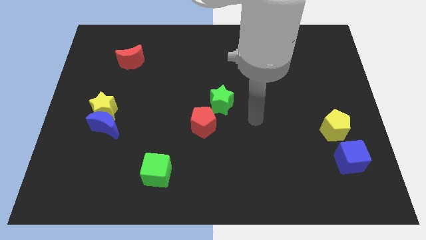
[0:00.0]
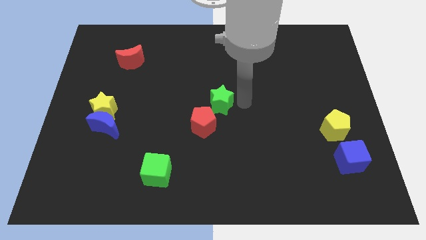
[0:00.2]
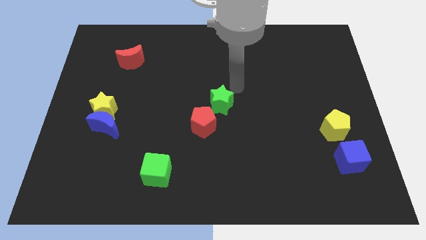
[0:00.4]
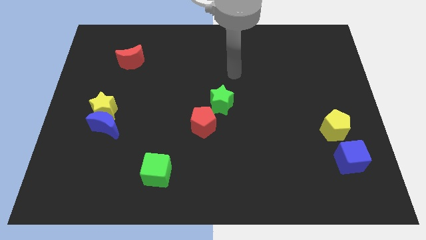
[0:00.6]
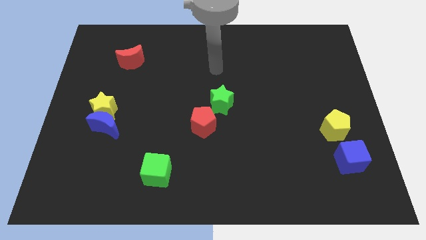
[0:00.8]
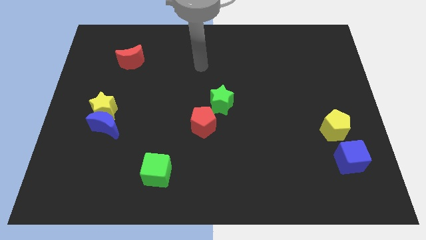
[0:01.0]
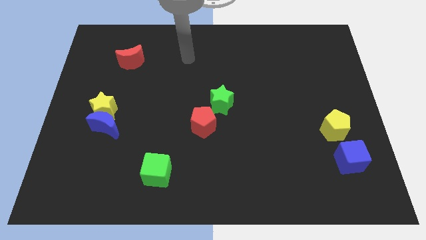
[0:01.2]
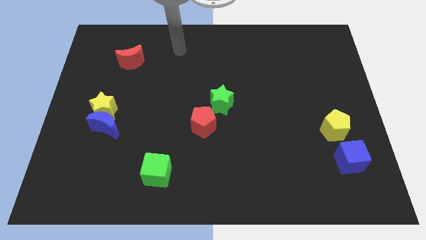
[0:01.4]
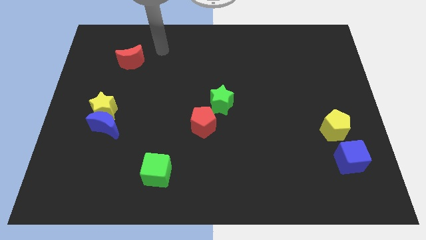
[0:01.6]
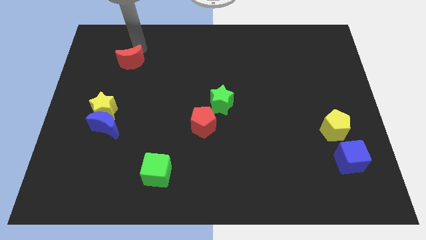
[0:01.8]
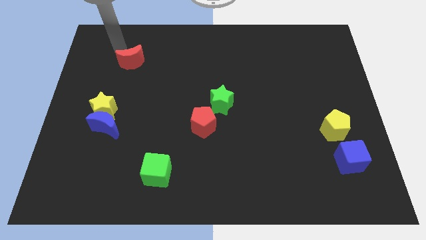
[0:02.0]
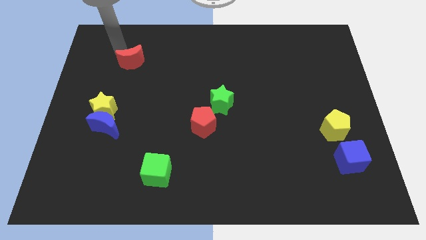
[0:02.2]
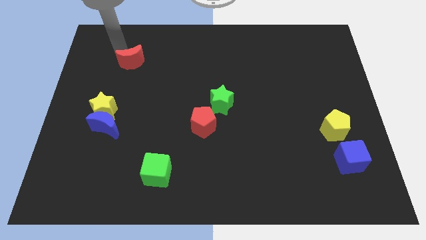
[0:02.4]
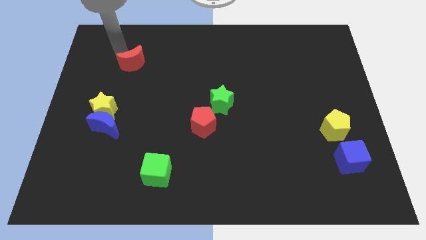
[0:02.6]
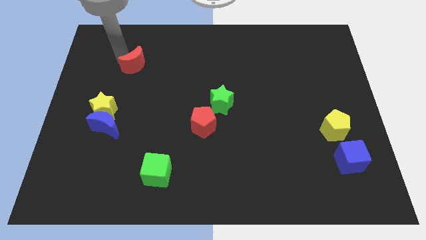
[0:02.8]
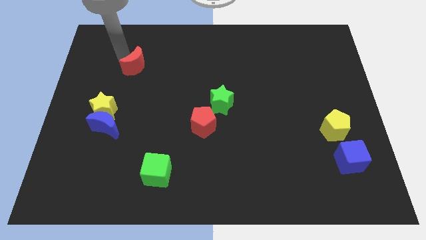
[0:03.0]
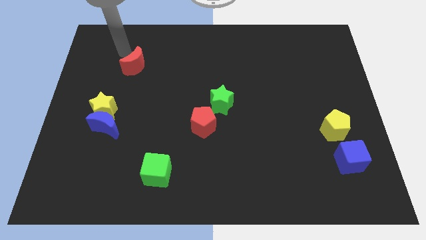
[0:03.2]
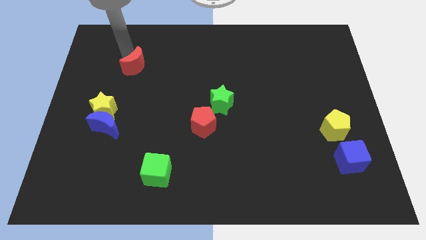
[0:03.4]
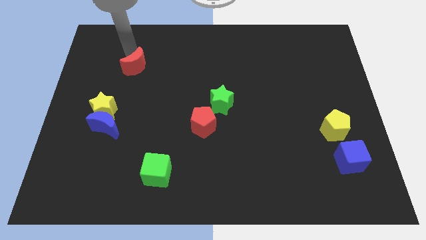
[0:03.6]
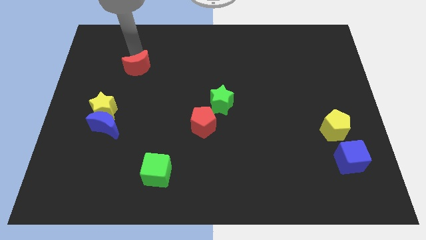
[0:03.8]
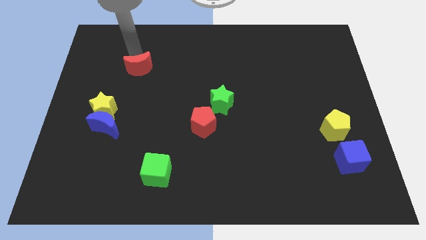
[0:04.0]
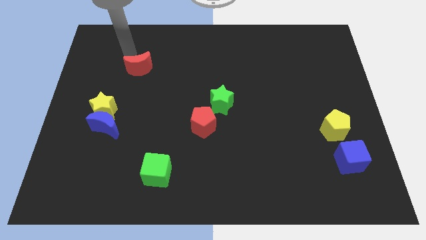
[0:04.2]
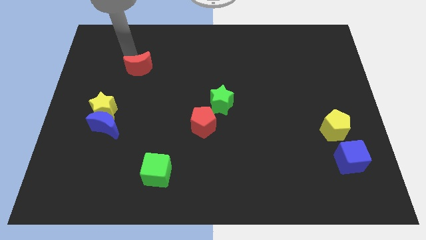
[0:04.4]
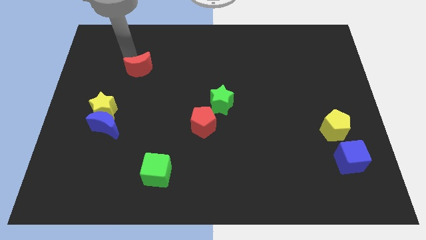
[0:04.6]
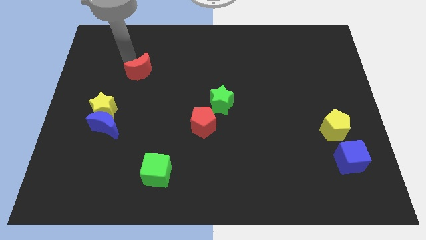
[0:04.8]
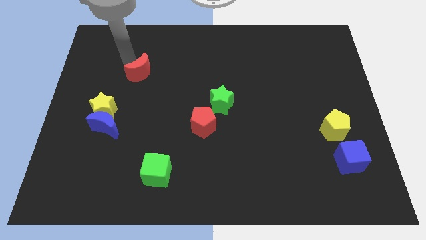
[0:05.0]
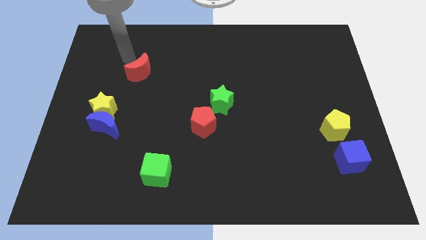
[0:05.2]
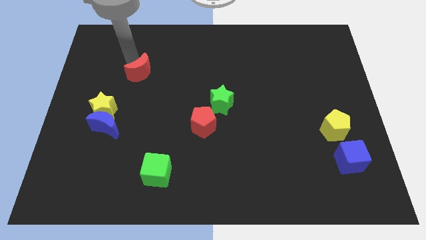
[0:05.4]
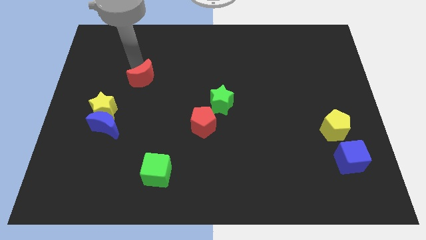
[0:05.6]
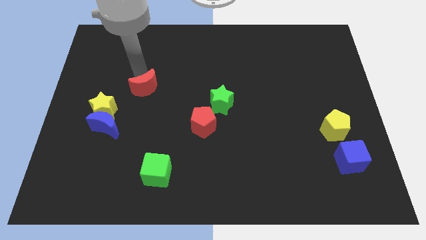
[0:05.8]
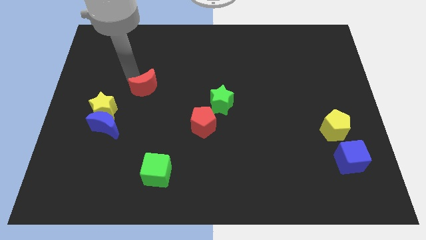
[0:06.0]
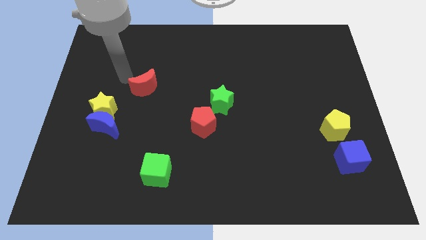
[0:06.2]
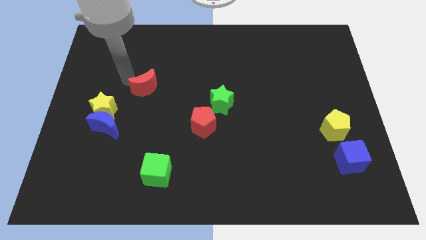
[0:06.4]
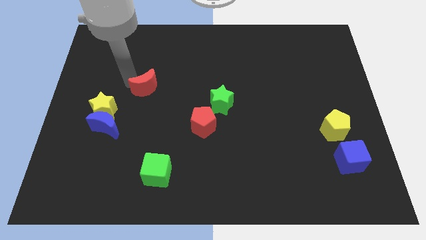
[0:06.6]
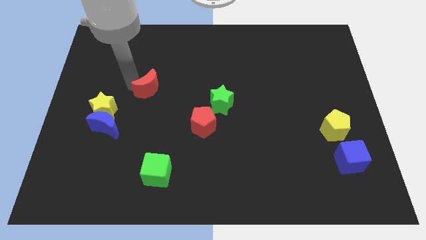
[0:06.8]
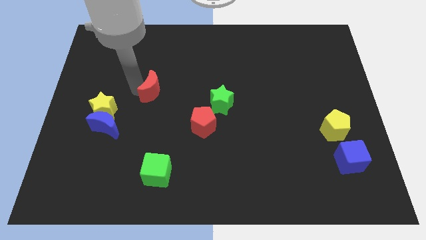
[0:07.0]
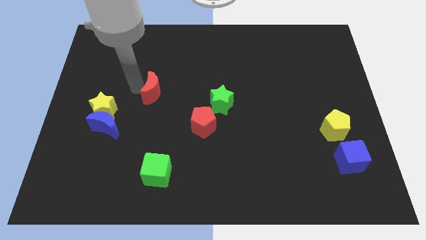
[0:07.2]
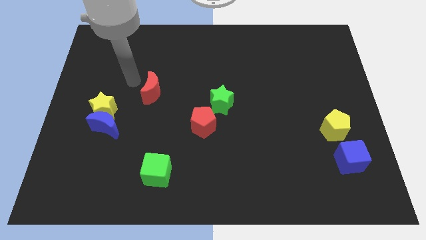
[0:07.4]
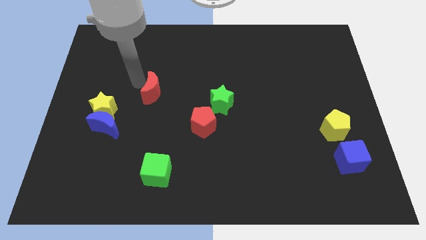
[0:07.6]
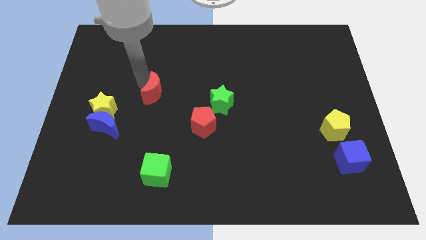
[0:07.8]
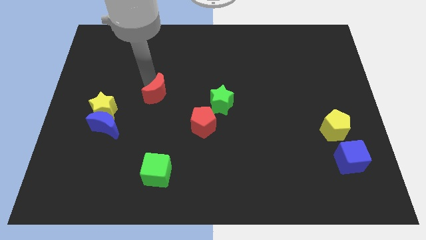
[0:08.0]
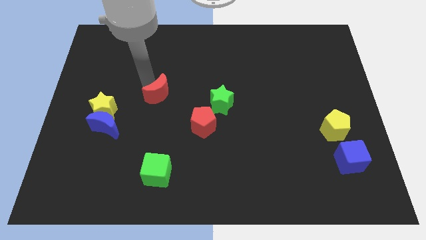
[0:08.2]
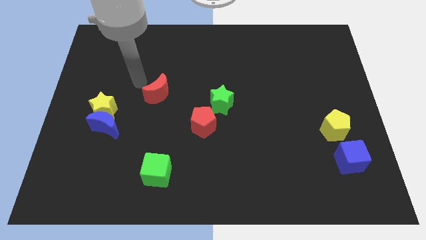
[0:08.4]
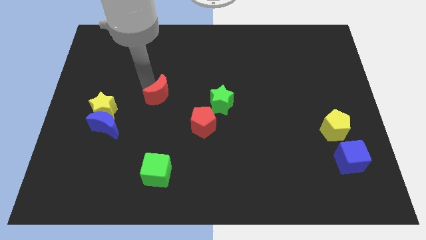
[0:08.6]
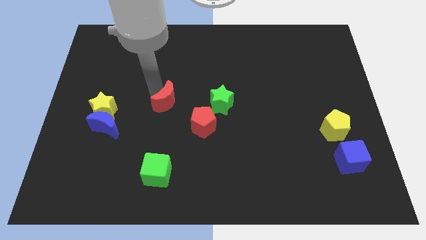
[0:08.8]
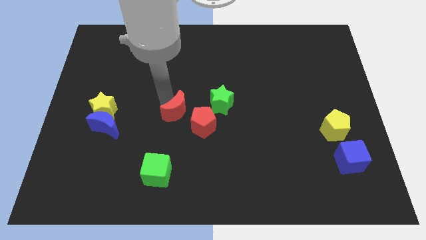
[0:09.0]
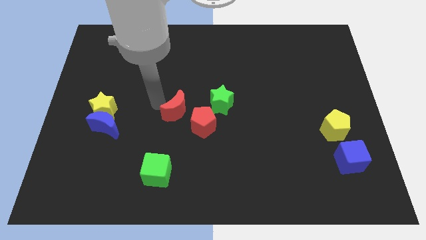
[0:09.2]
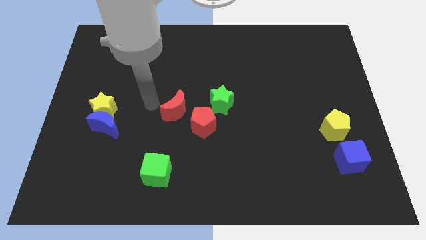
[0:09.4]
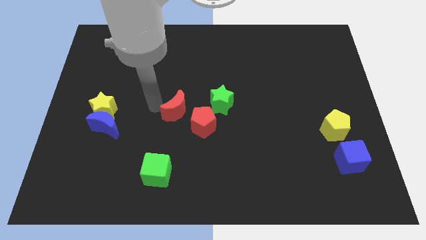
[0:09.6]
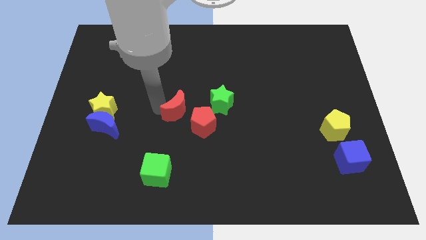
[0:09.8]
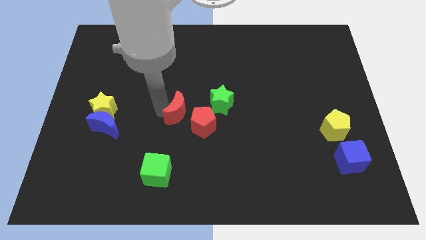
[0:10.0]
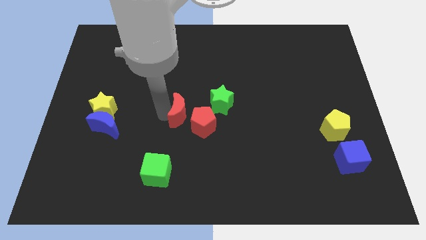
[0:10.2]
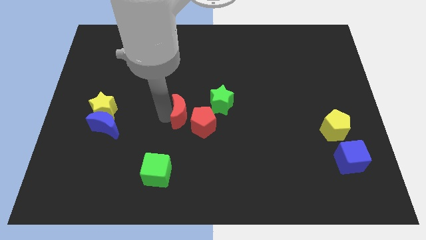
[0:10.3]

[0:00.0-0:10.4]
put the red moon close to the red pentagon

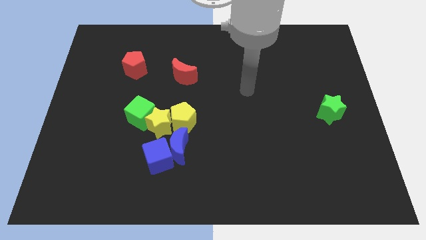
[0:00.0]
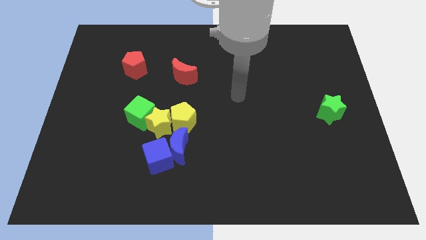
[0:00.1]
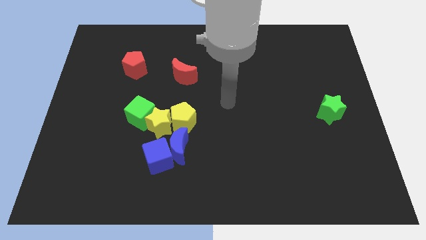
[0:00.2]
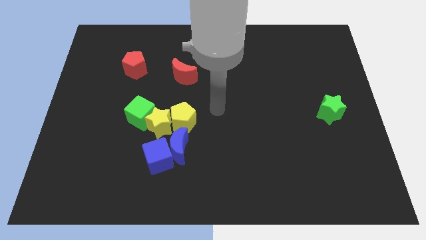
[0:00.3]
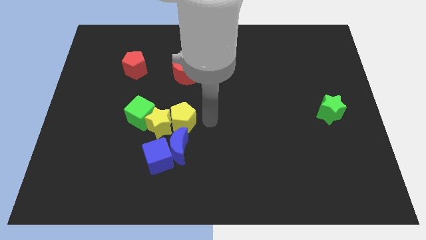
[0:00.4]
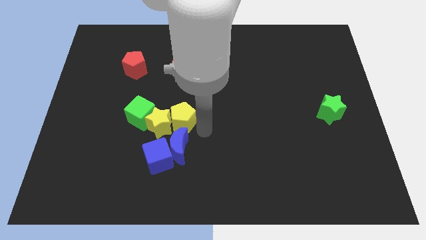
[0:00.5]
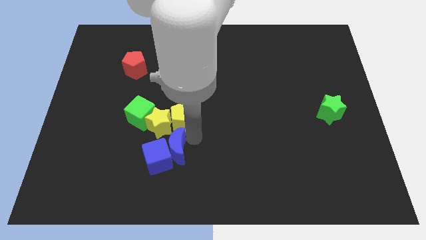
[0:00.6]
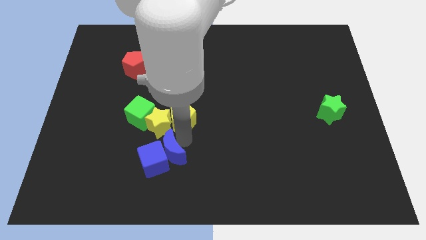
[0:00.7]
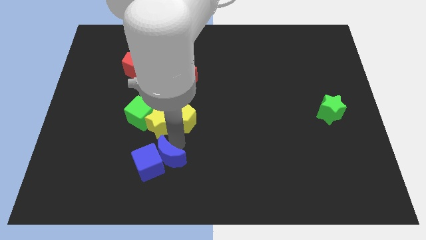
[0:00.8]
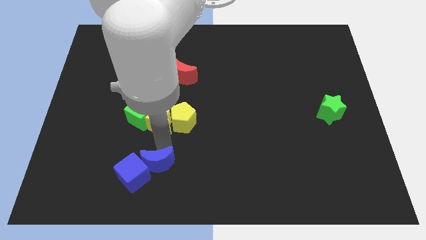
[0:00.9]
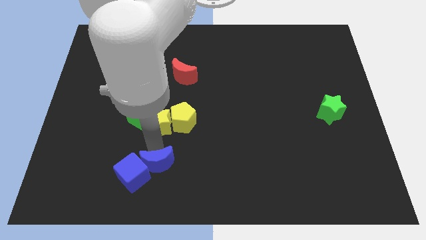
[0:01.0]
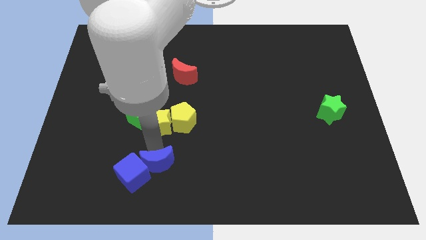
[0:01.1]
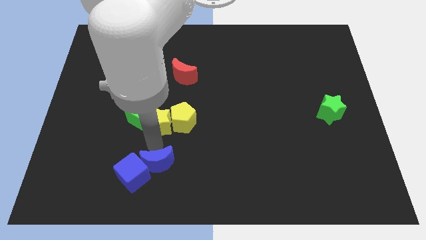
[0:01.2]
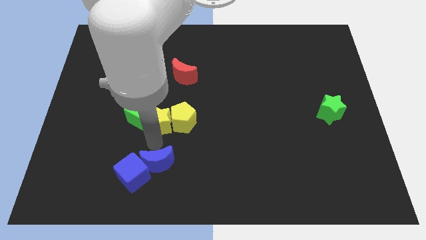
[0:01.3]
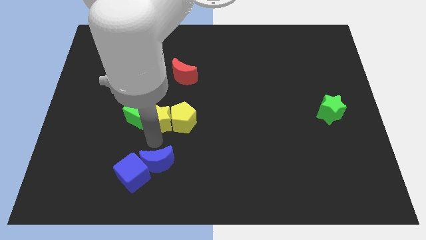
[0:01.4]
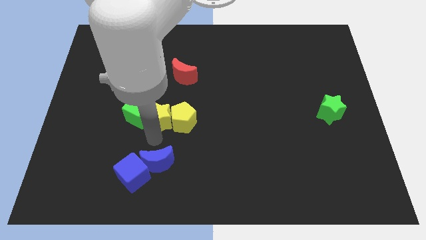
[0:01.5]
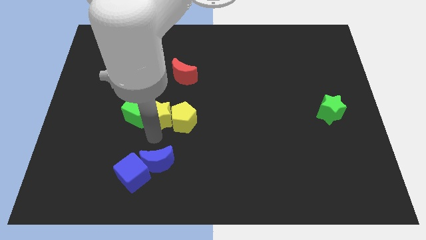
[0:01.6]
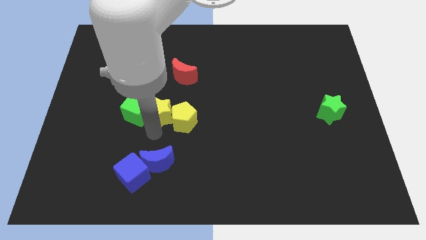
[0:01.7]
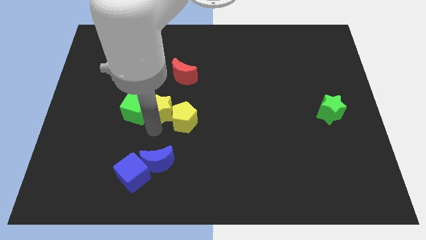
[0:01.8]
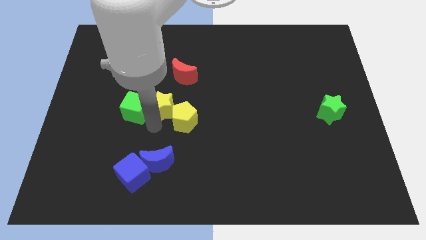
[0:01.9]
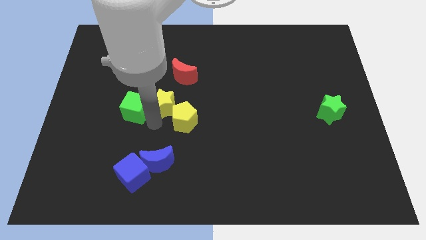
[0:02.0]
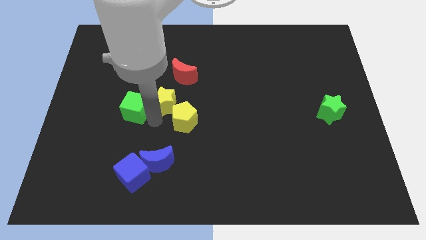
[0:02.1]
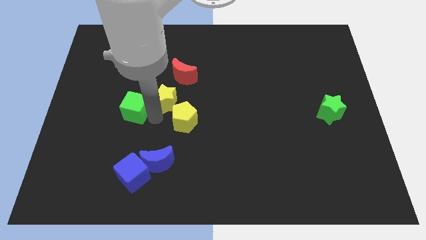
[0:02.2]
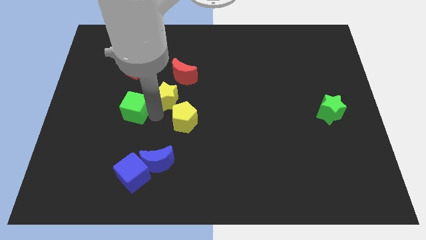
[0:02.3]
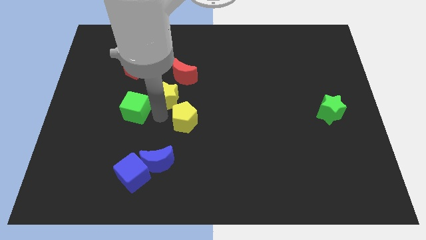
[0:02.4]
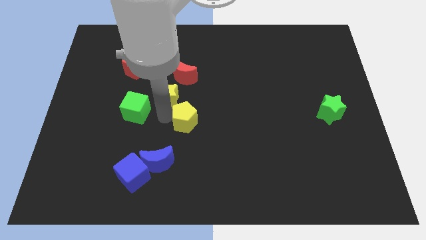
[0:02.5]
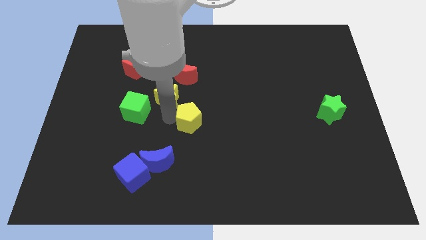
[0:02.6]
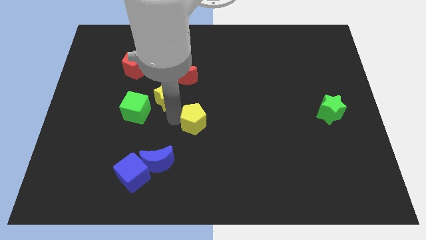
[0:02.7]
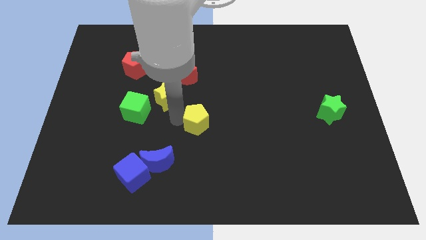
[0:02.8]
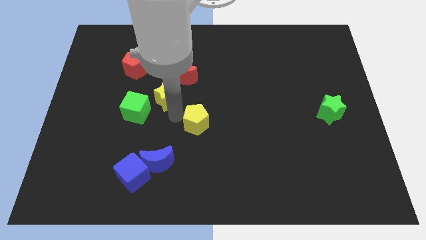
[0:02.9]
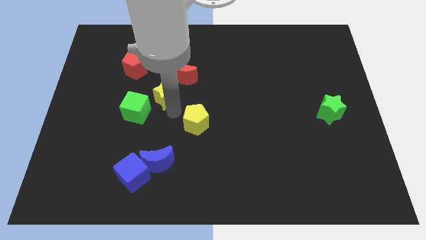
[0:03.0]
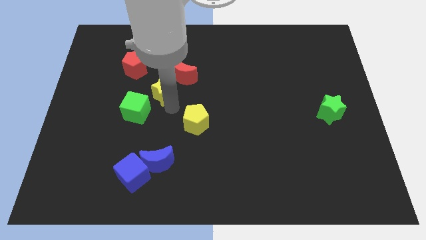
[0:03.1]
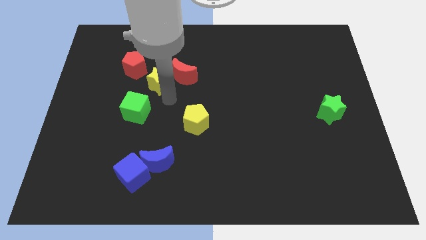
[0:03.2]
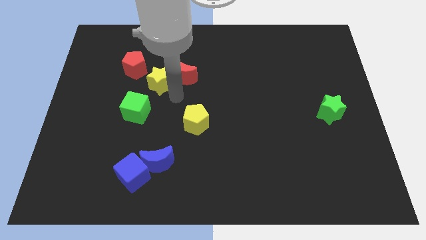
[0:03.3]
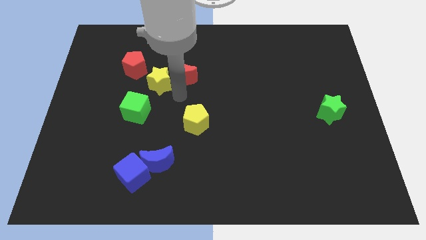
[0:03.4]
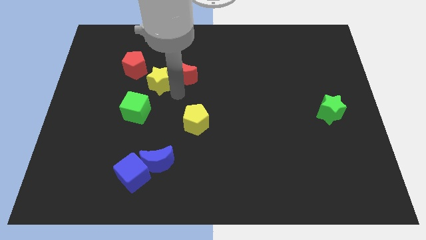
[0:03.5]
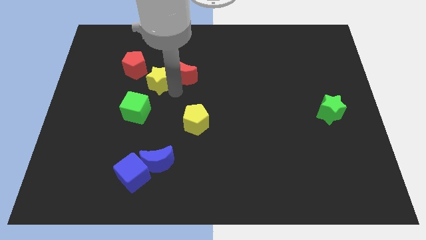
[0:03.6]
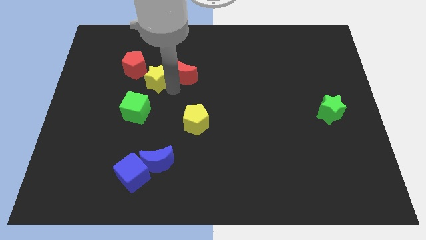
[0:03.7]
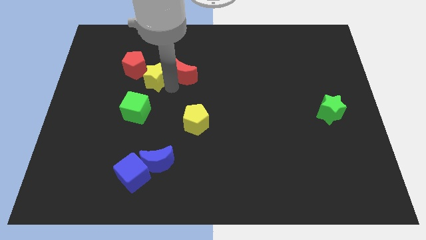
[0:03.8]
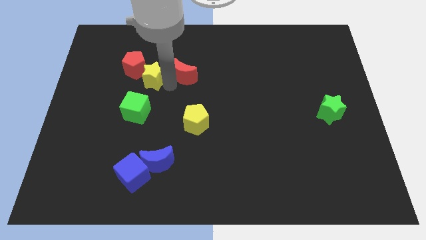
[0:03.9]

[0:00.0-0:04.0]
slide the yellow star close to the red pentagon
